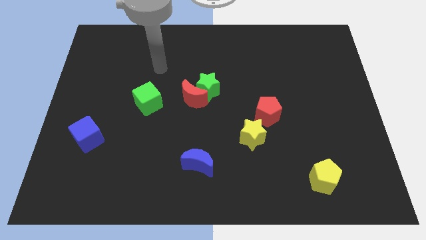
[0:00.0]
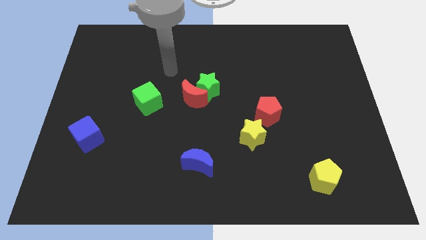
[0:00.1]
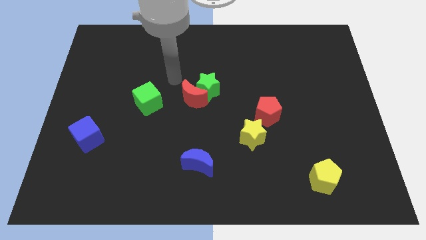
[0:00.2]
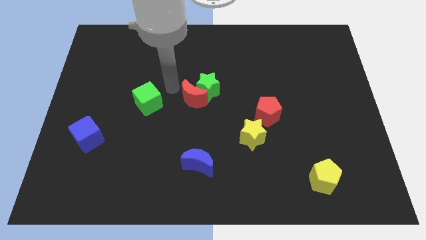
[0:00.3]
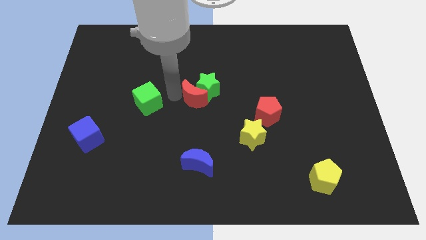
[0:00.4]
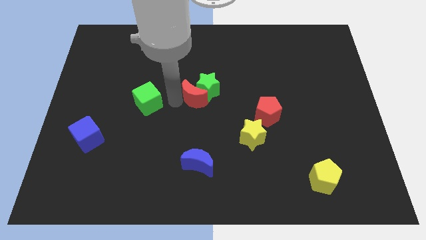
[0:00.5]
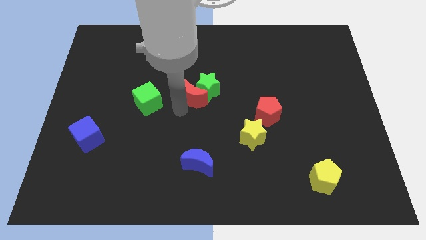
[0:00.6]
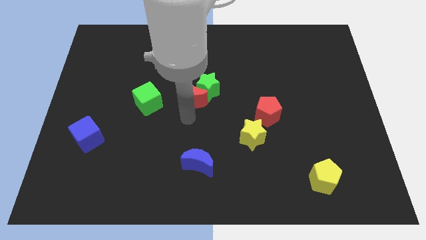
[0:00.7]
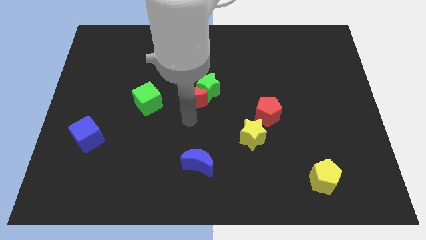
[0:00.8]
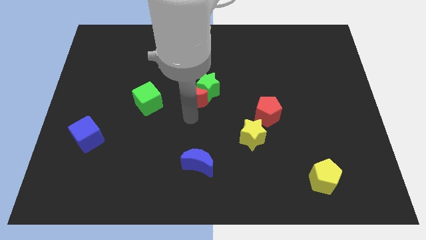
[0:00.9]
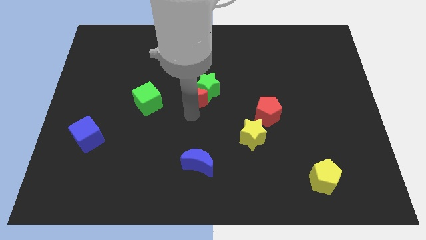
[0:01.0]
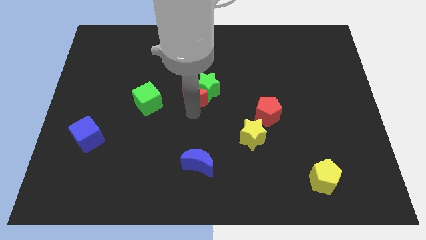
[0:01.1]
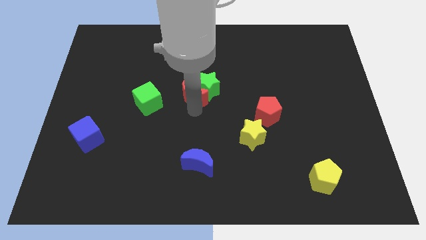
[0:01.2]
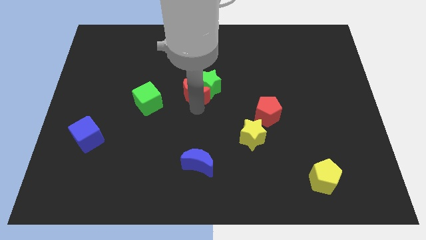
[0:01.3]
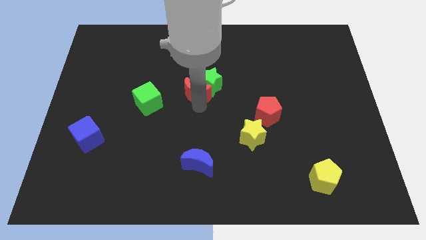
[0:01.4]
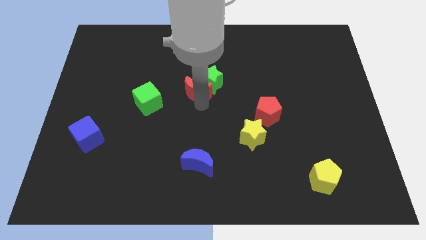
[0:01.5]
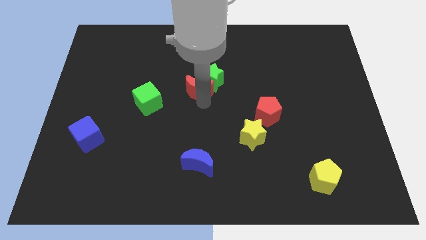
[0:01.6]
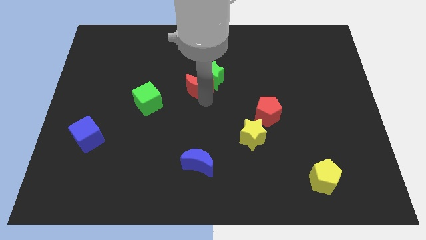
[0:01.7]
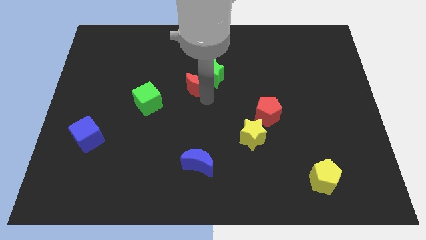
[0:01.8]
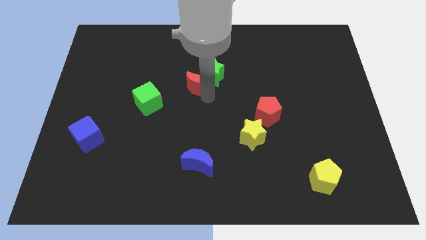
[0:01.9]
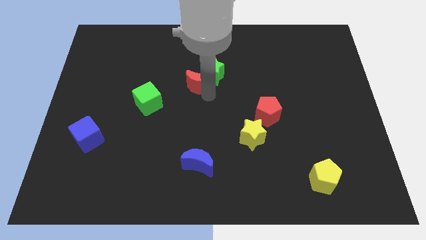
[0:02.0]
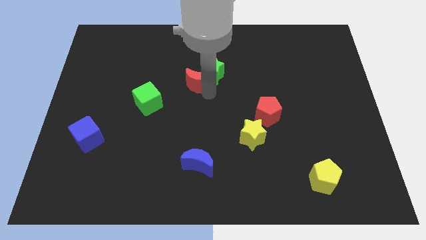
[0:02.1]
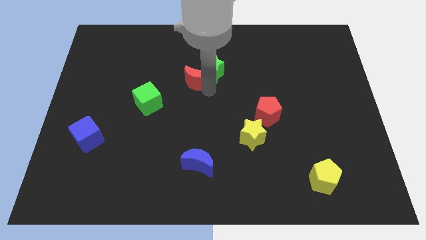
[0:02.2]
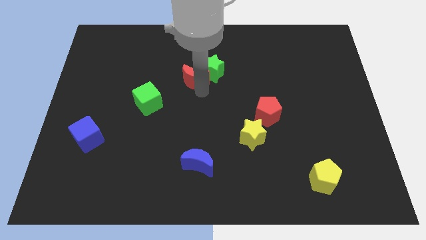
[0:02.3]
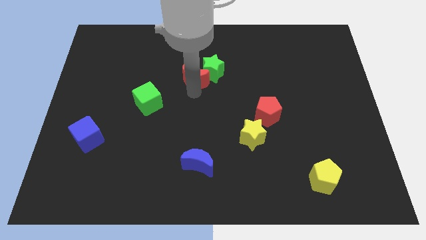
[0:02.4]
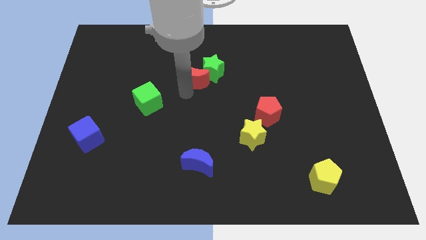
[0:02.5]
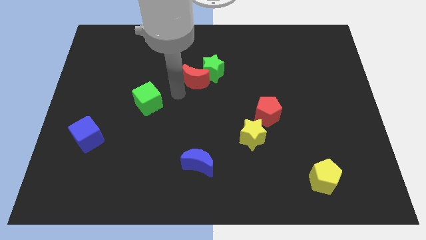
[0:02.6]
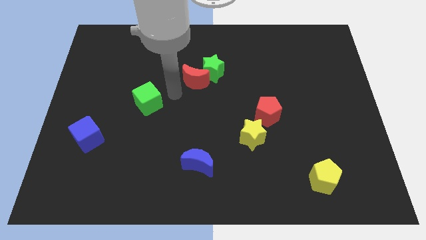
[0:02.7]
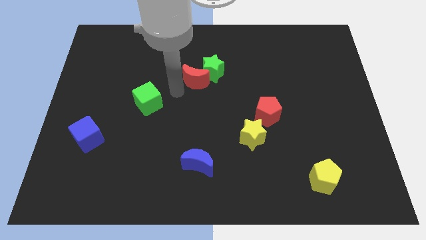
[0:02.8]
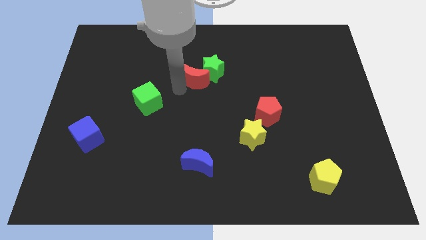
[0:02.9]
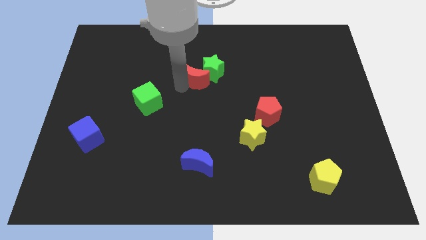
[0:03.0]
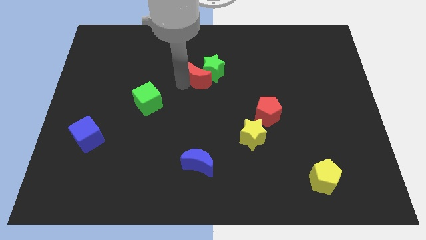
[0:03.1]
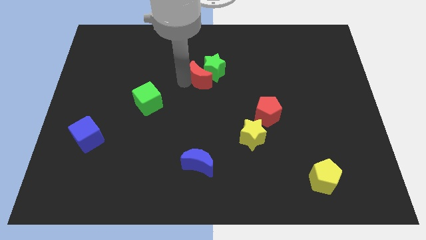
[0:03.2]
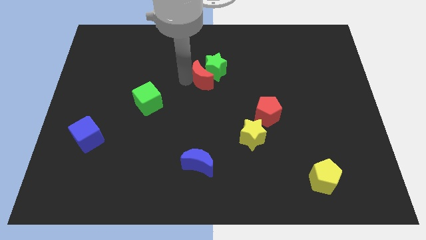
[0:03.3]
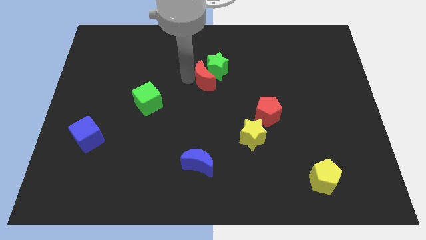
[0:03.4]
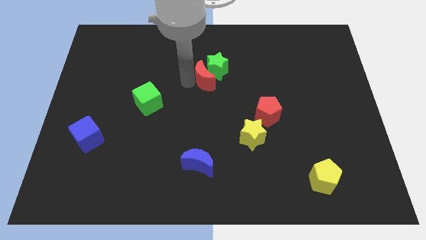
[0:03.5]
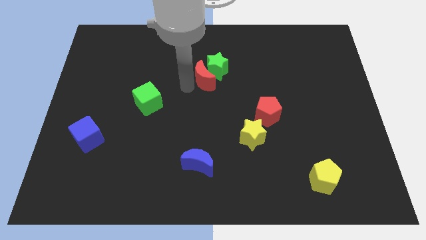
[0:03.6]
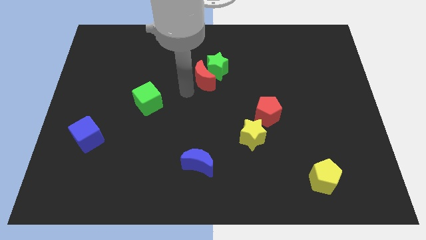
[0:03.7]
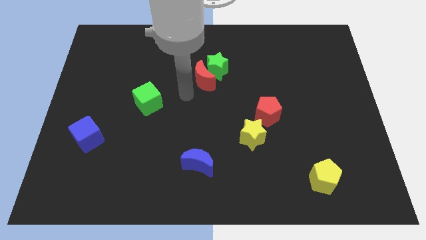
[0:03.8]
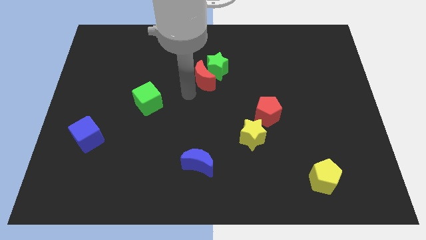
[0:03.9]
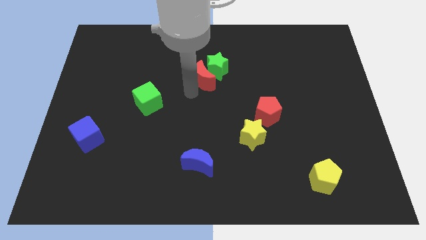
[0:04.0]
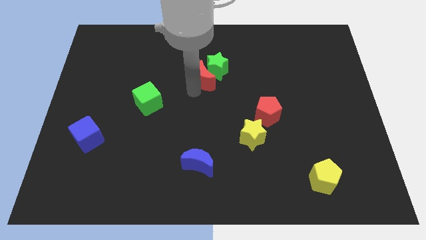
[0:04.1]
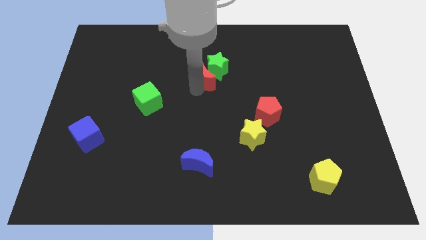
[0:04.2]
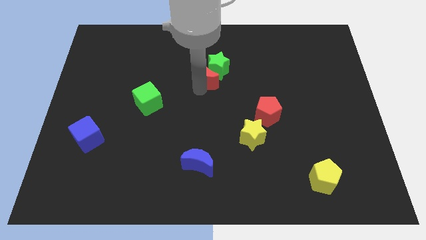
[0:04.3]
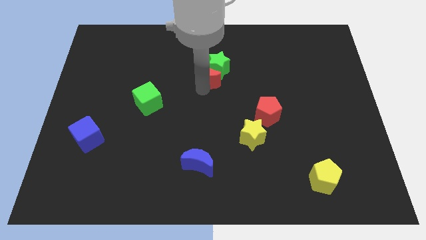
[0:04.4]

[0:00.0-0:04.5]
slide the red moon a bit up and to the right diagonally

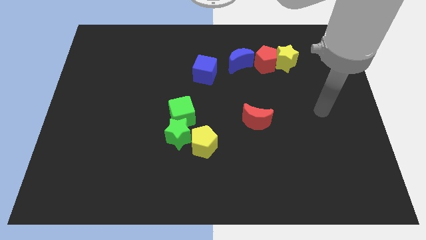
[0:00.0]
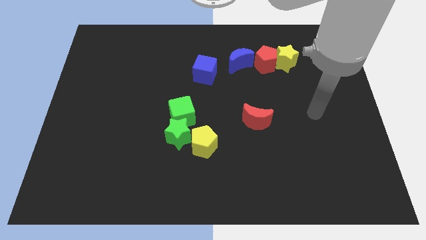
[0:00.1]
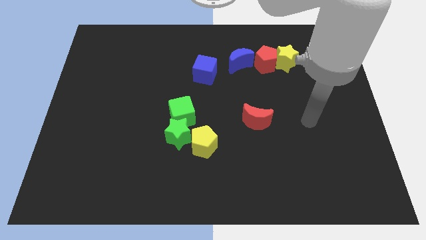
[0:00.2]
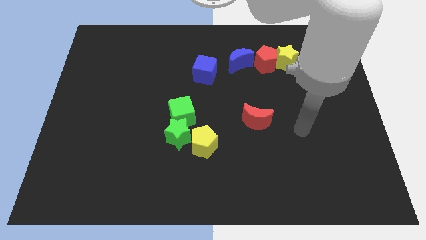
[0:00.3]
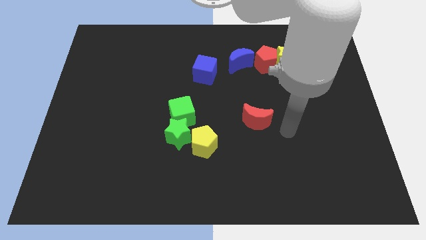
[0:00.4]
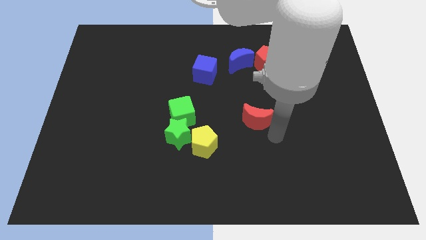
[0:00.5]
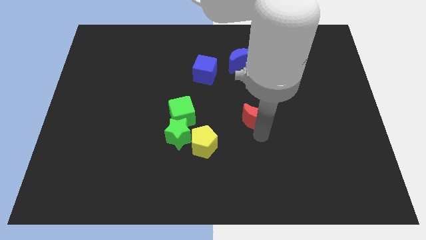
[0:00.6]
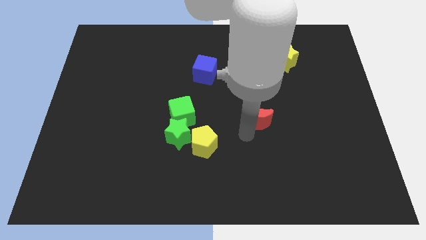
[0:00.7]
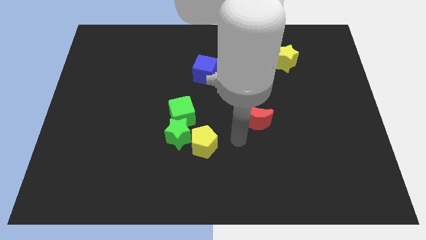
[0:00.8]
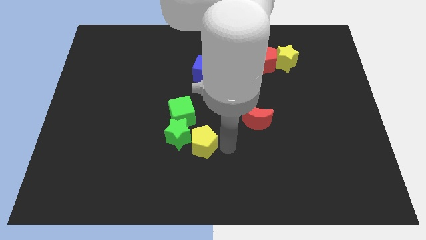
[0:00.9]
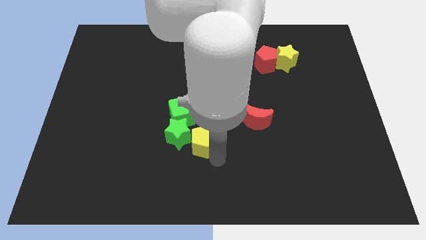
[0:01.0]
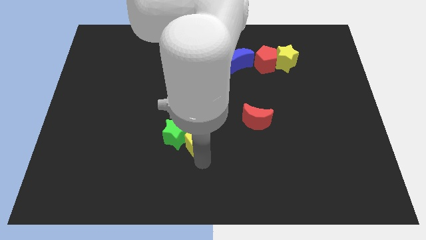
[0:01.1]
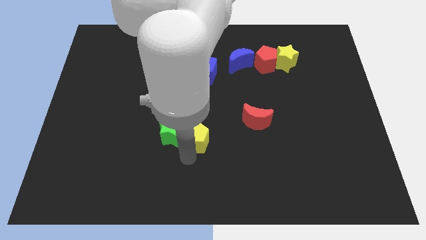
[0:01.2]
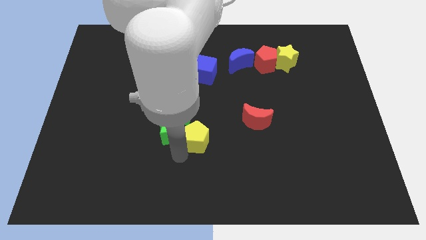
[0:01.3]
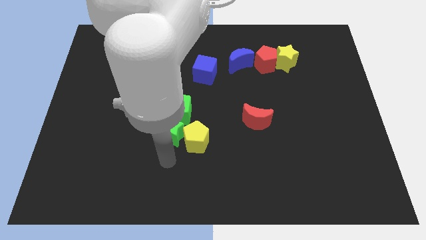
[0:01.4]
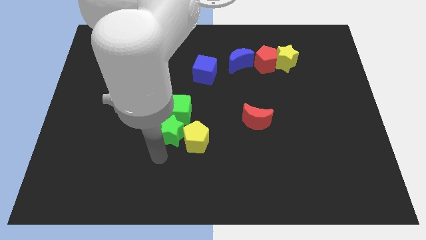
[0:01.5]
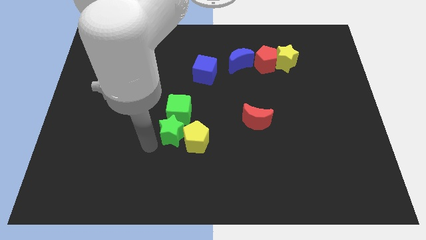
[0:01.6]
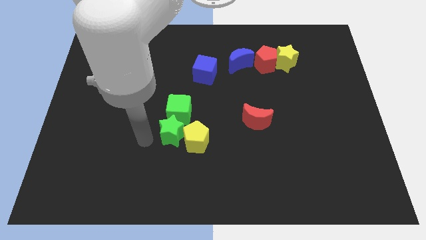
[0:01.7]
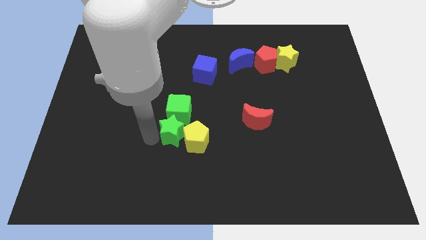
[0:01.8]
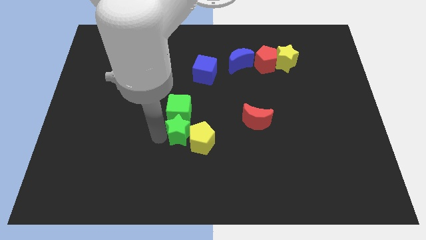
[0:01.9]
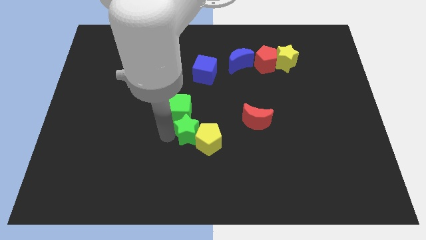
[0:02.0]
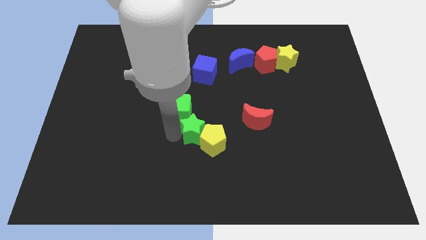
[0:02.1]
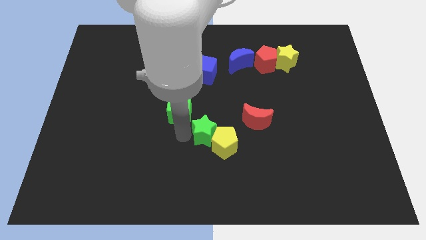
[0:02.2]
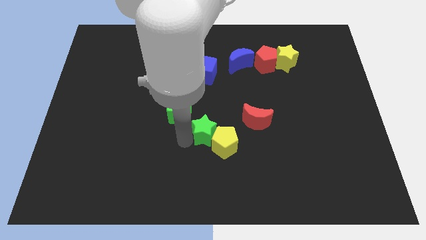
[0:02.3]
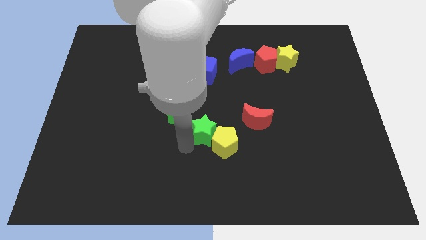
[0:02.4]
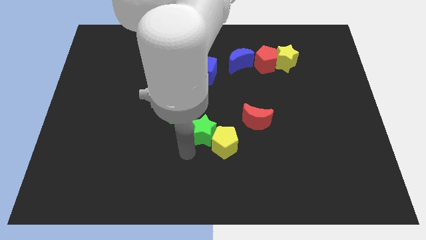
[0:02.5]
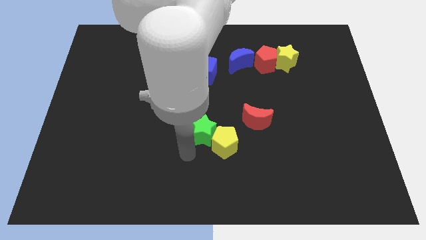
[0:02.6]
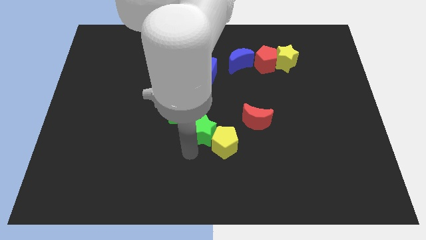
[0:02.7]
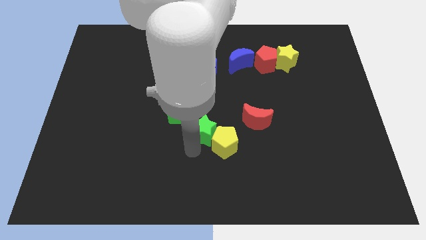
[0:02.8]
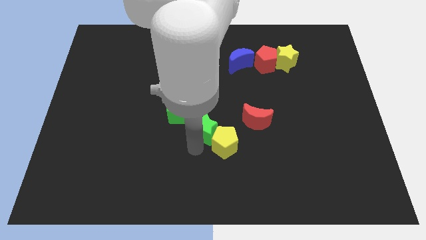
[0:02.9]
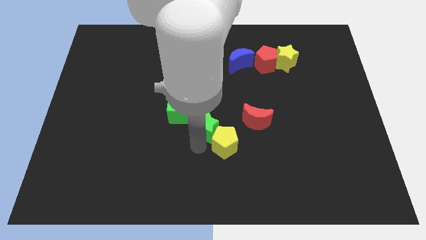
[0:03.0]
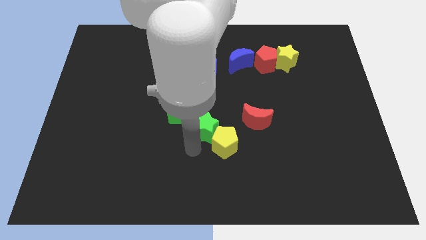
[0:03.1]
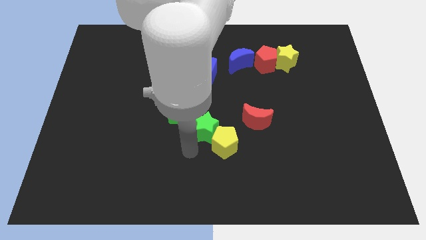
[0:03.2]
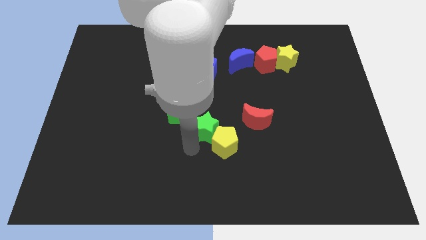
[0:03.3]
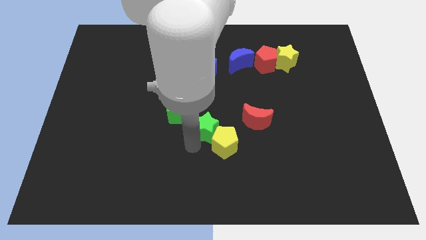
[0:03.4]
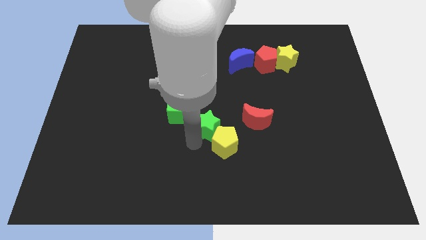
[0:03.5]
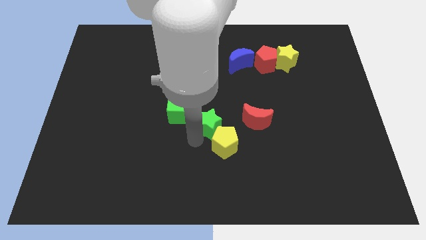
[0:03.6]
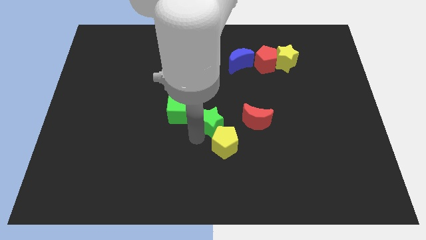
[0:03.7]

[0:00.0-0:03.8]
slide the green star a little bit upwards and right

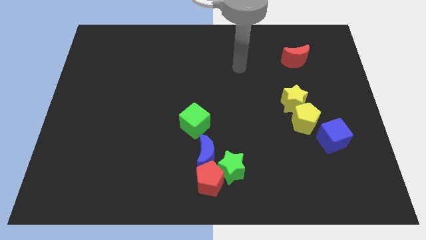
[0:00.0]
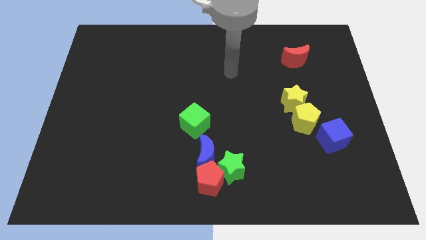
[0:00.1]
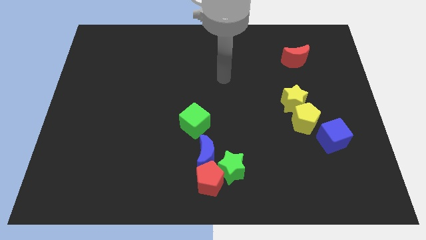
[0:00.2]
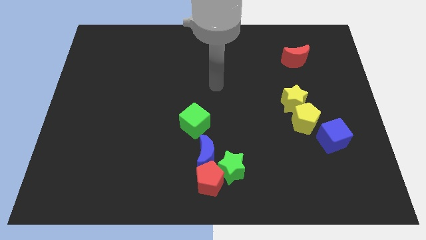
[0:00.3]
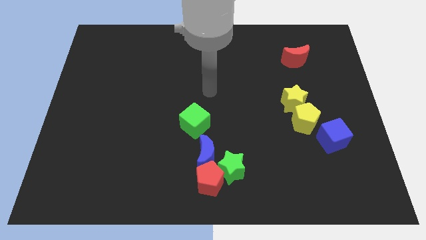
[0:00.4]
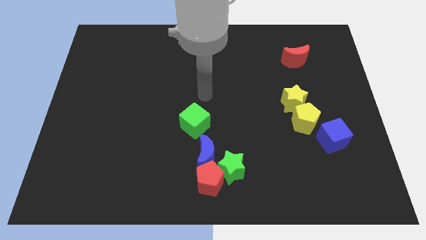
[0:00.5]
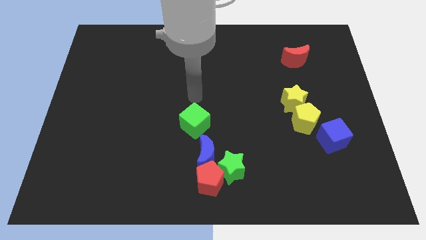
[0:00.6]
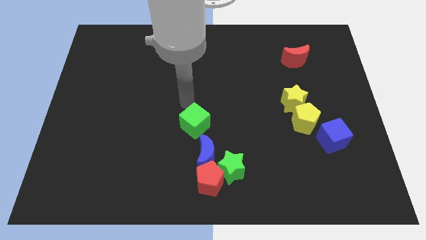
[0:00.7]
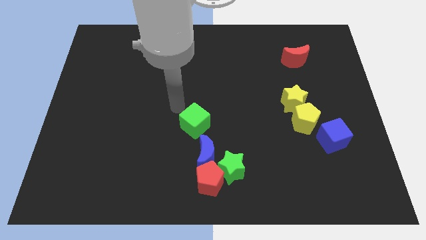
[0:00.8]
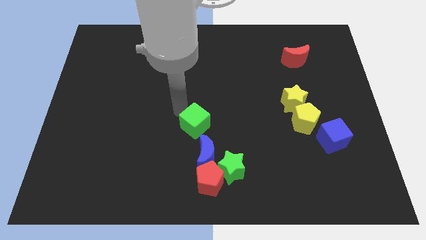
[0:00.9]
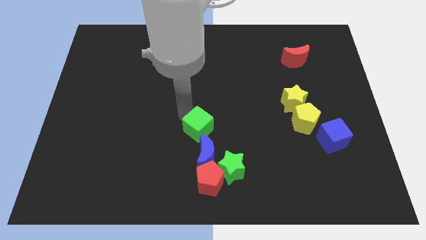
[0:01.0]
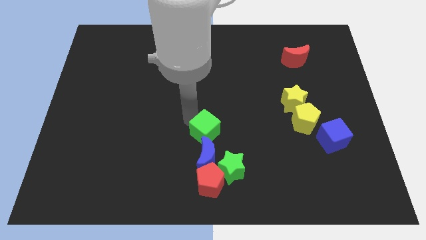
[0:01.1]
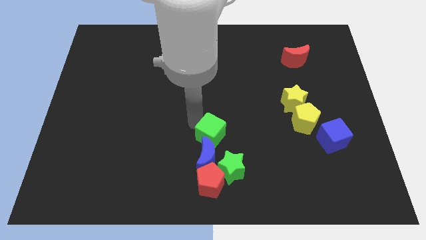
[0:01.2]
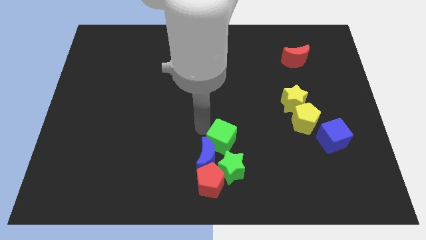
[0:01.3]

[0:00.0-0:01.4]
slightly slide the green cube downwards and right
